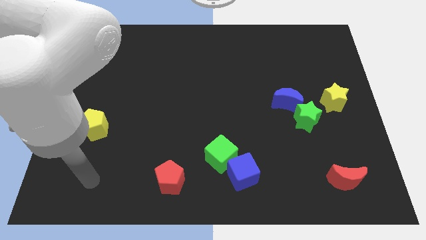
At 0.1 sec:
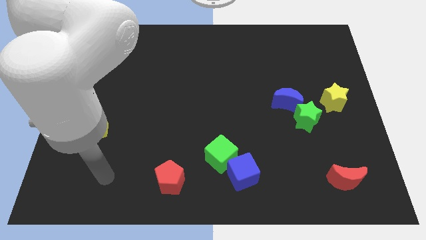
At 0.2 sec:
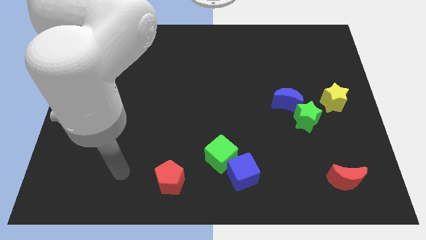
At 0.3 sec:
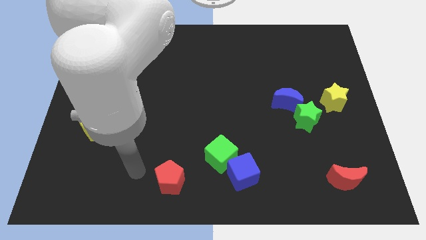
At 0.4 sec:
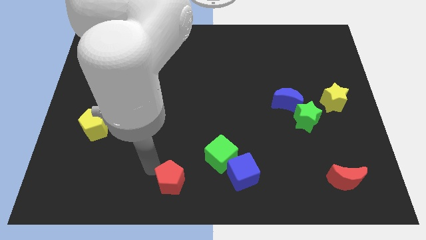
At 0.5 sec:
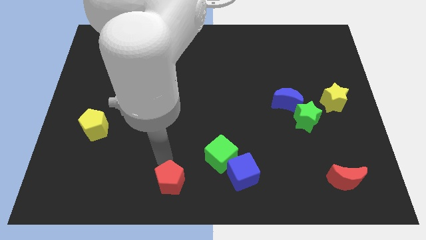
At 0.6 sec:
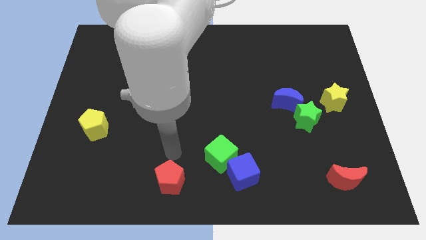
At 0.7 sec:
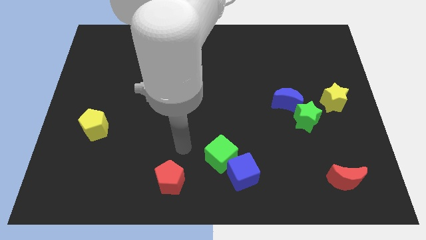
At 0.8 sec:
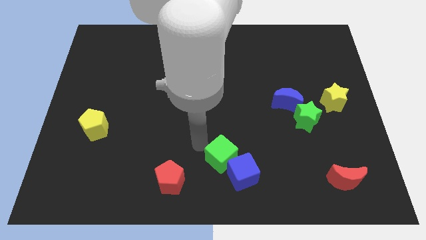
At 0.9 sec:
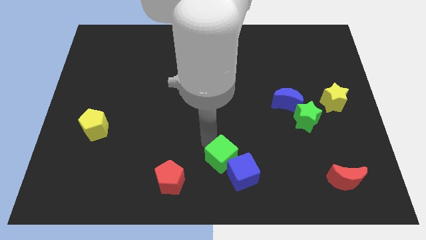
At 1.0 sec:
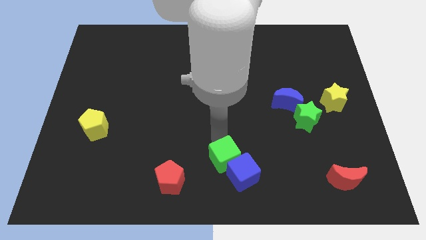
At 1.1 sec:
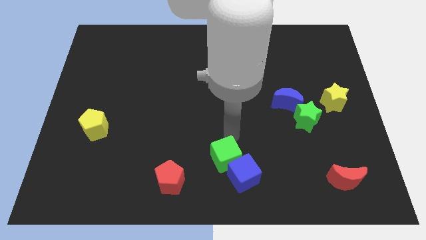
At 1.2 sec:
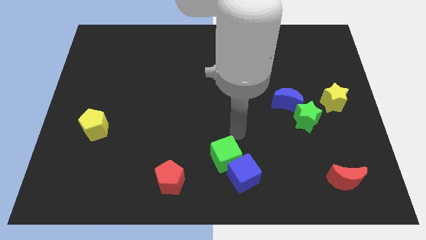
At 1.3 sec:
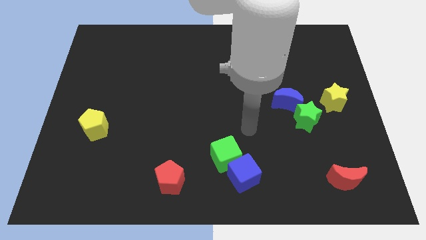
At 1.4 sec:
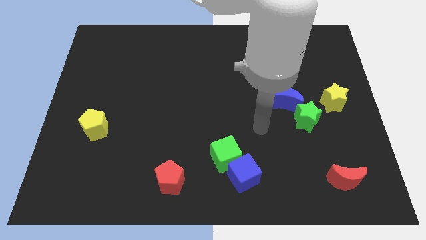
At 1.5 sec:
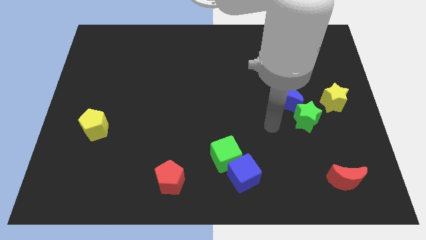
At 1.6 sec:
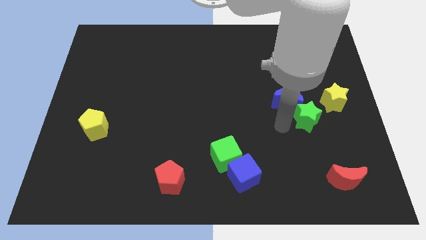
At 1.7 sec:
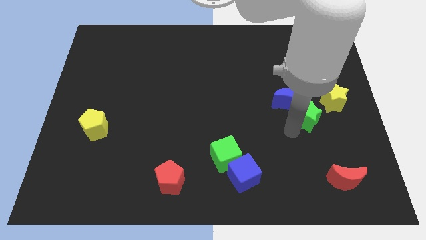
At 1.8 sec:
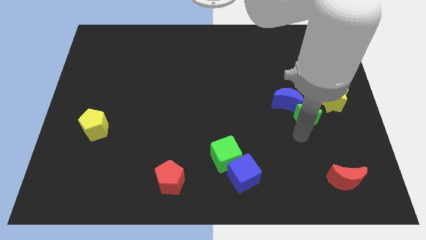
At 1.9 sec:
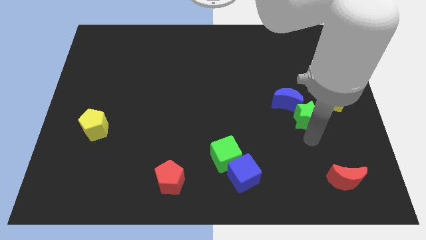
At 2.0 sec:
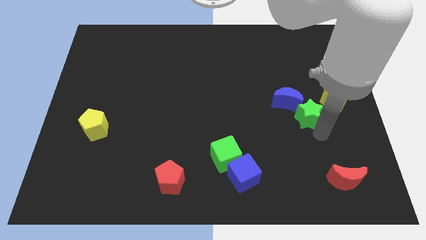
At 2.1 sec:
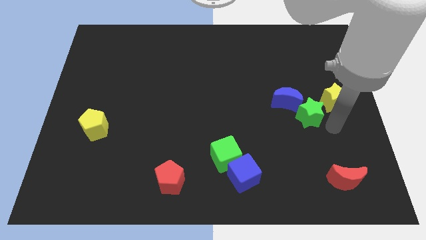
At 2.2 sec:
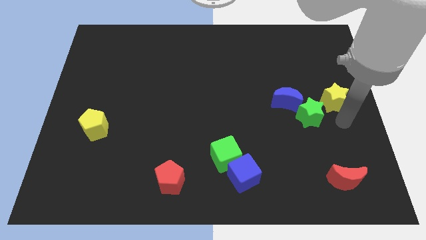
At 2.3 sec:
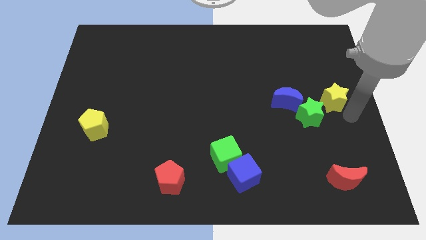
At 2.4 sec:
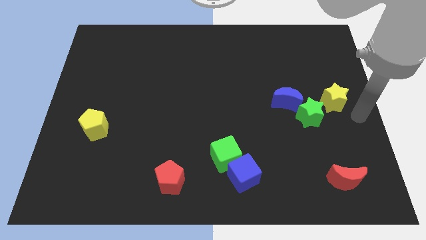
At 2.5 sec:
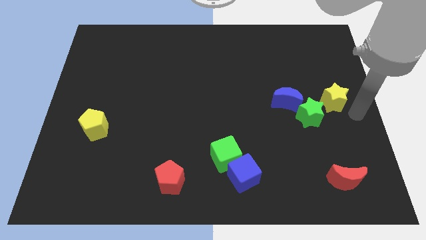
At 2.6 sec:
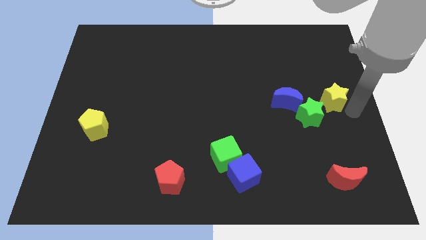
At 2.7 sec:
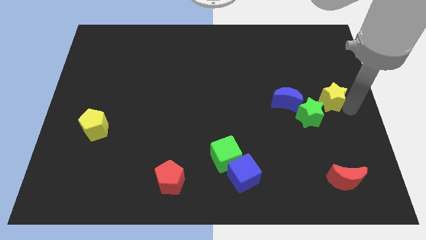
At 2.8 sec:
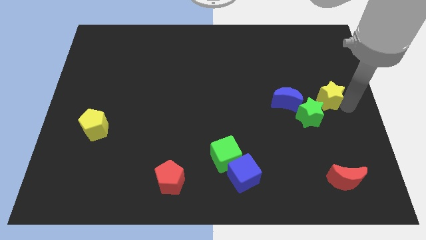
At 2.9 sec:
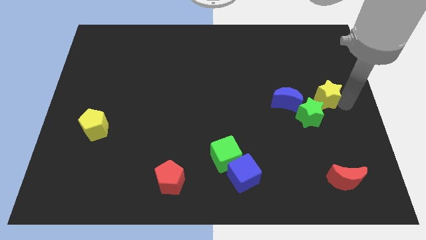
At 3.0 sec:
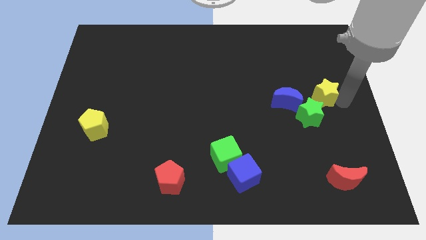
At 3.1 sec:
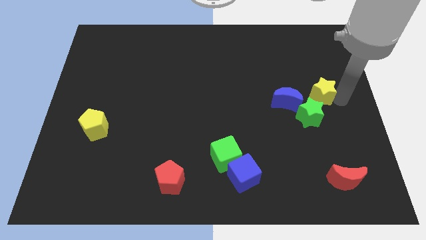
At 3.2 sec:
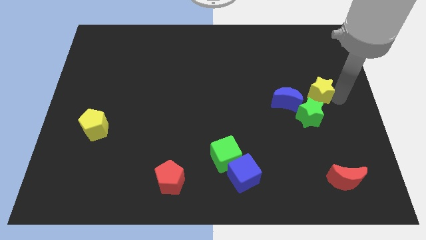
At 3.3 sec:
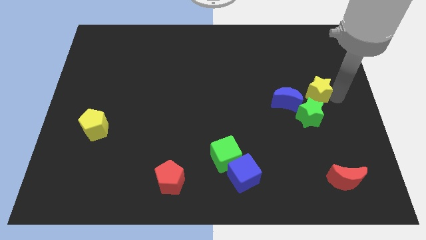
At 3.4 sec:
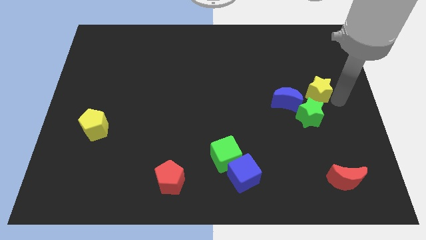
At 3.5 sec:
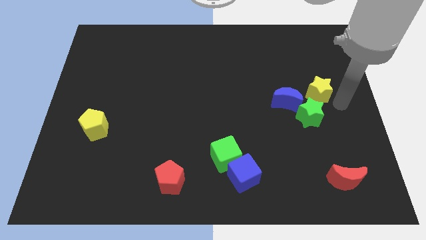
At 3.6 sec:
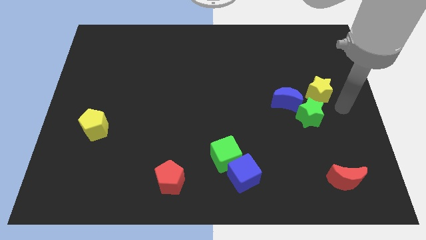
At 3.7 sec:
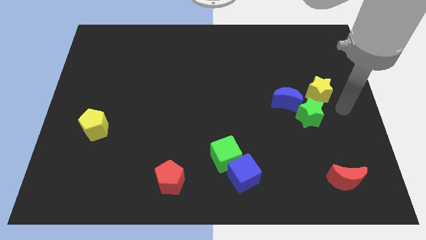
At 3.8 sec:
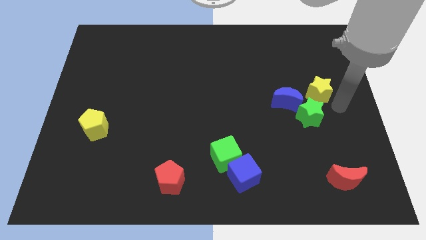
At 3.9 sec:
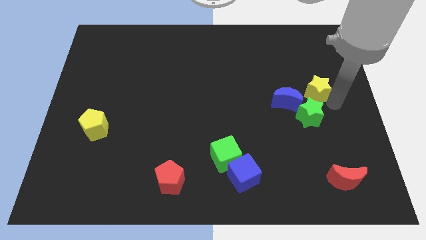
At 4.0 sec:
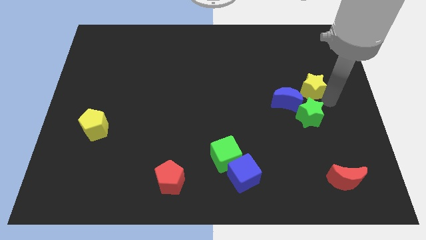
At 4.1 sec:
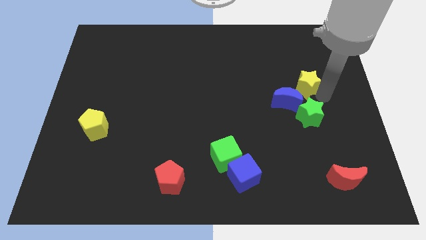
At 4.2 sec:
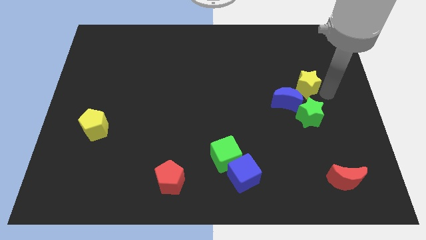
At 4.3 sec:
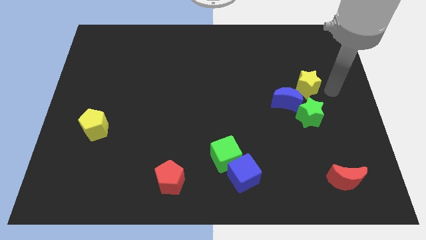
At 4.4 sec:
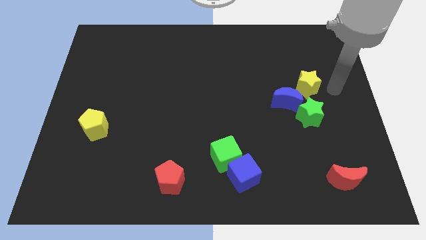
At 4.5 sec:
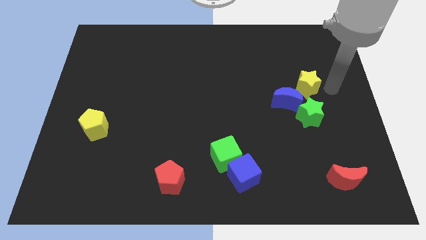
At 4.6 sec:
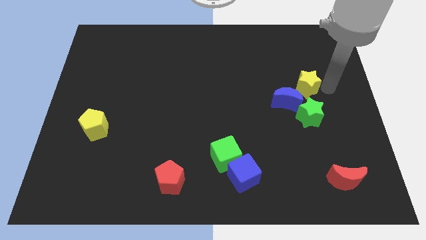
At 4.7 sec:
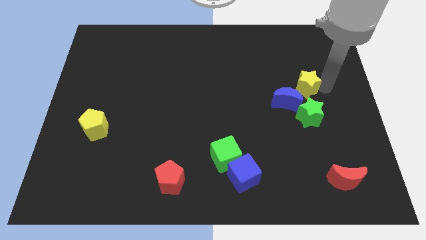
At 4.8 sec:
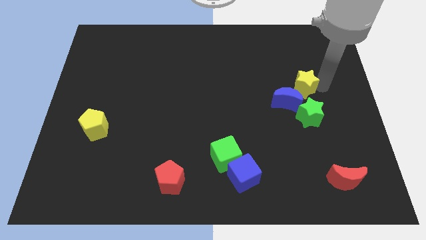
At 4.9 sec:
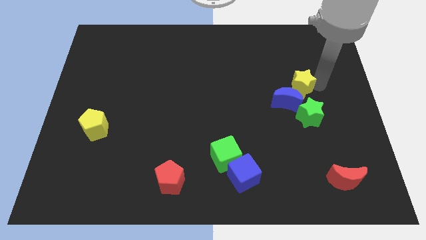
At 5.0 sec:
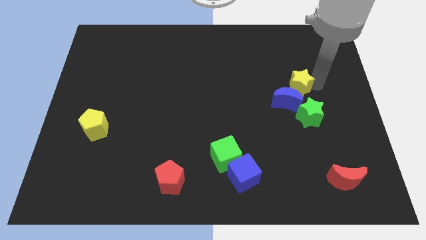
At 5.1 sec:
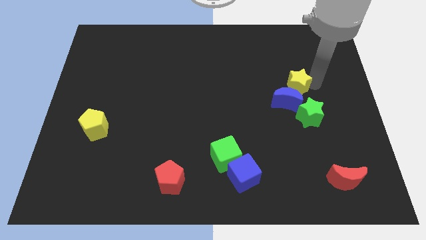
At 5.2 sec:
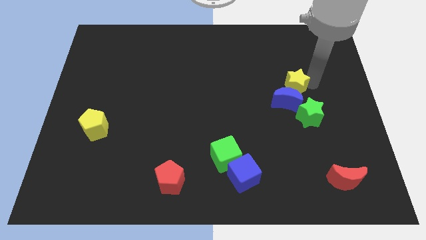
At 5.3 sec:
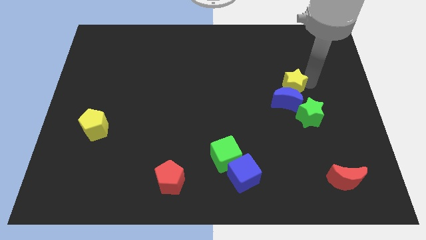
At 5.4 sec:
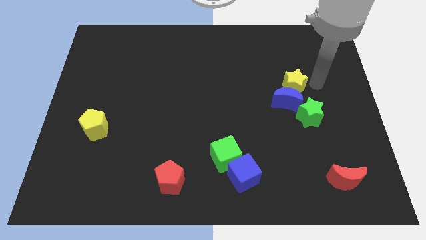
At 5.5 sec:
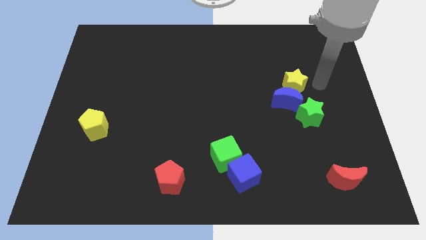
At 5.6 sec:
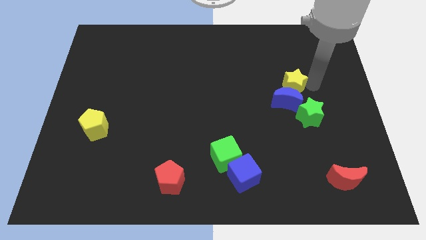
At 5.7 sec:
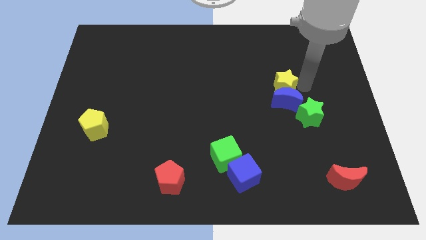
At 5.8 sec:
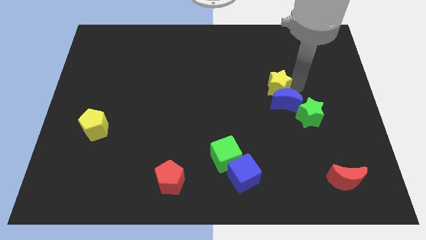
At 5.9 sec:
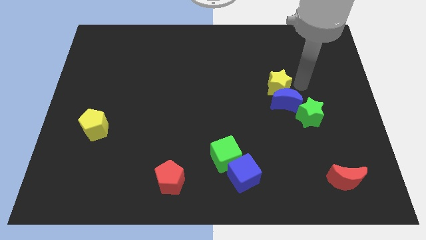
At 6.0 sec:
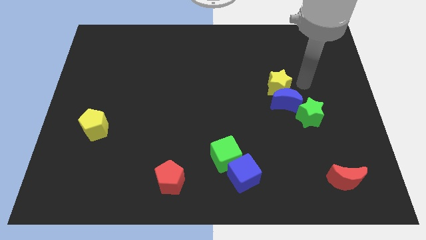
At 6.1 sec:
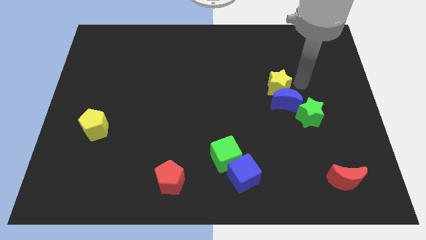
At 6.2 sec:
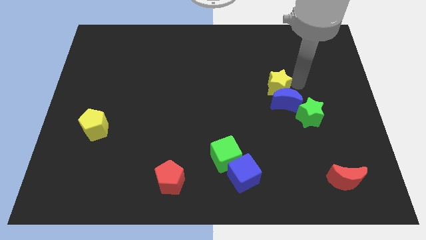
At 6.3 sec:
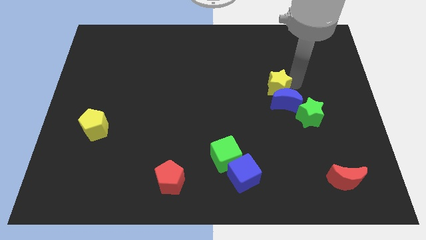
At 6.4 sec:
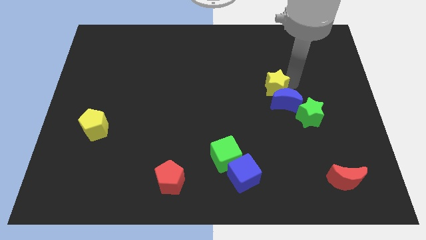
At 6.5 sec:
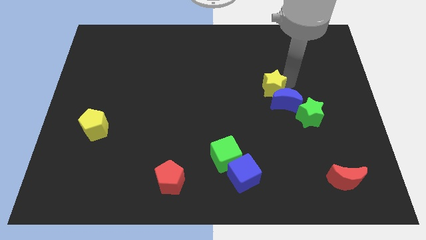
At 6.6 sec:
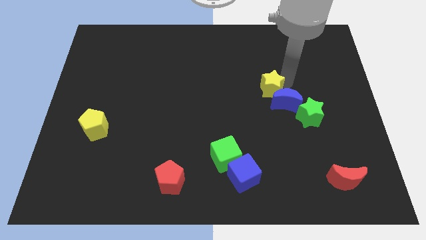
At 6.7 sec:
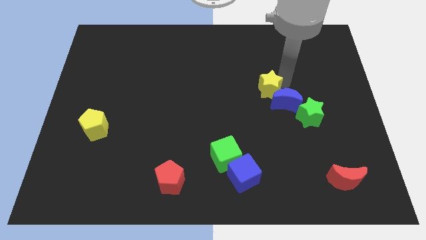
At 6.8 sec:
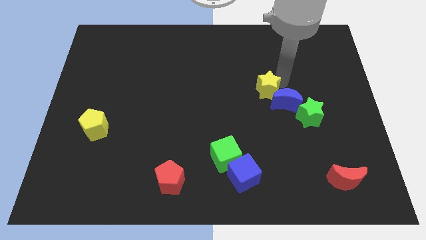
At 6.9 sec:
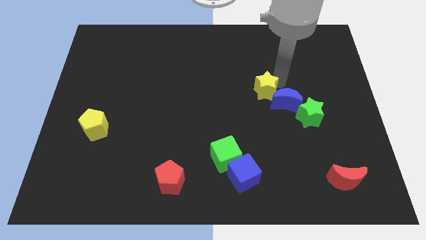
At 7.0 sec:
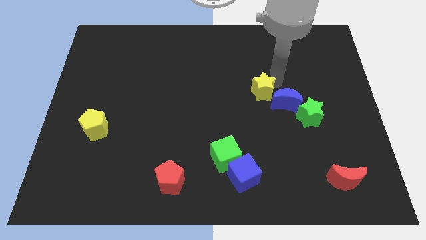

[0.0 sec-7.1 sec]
push the yellow star to the center of the board
